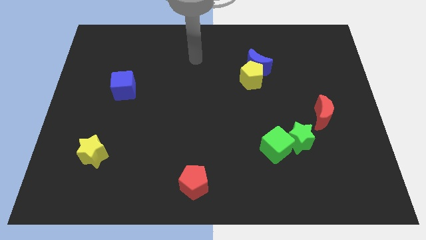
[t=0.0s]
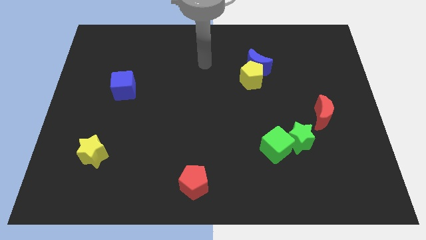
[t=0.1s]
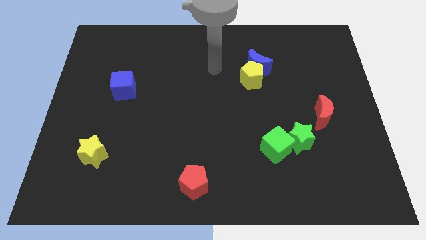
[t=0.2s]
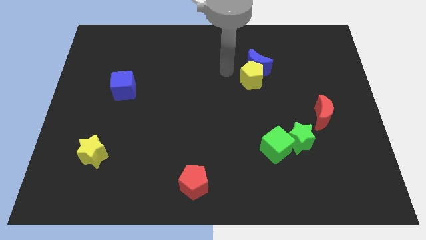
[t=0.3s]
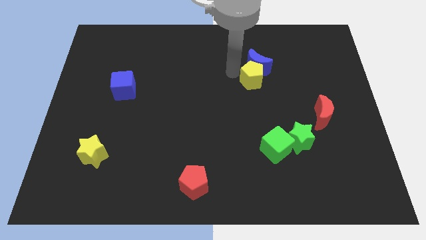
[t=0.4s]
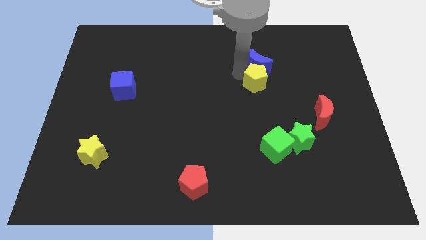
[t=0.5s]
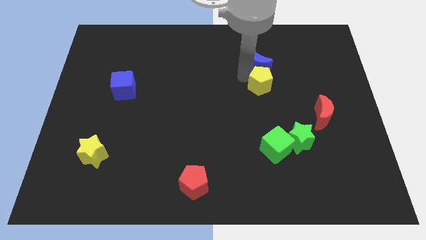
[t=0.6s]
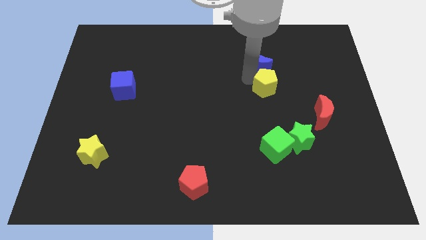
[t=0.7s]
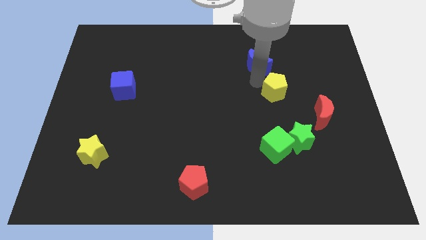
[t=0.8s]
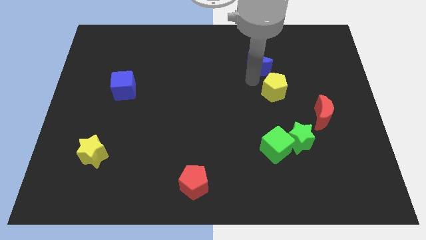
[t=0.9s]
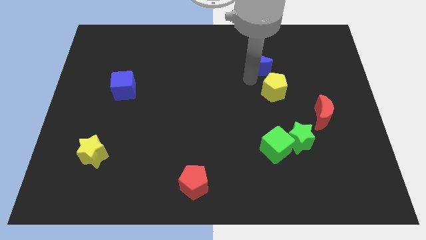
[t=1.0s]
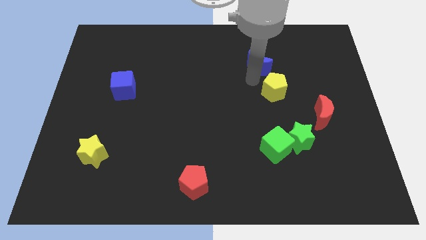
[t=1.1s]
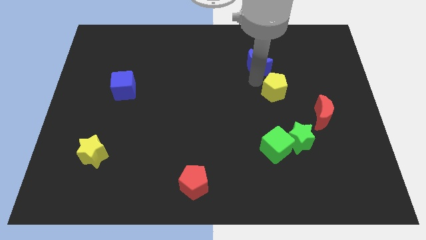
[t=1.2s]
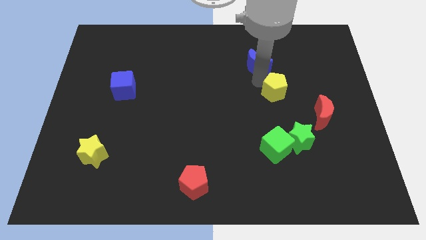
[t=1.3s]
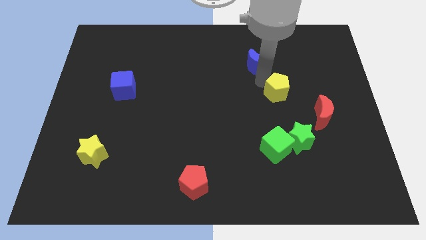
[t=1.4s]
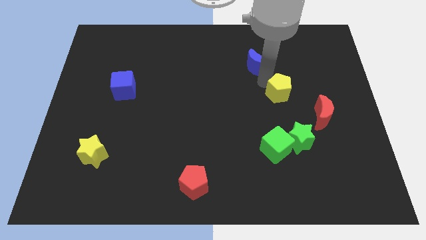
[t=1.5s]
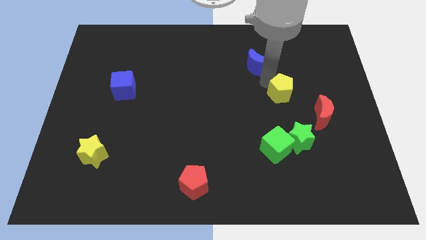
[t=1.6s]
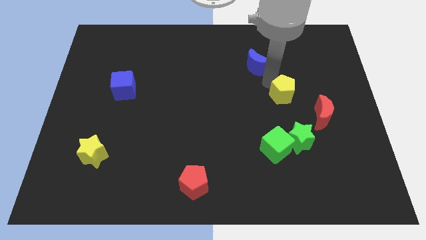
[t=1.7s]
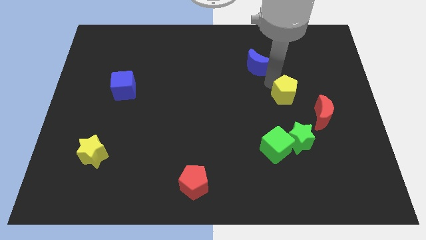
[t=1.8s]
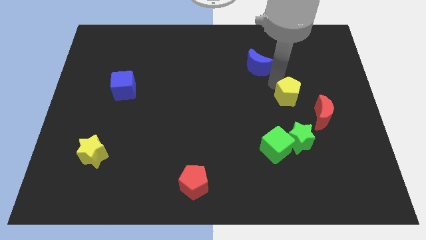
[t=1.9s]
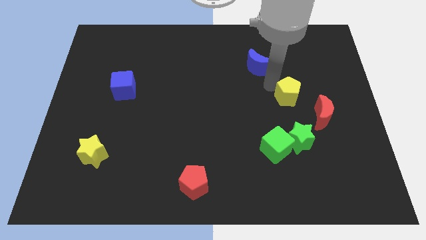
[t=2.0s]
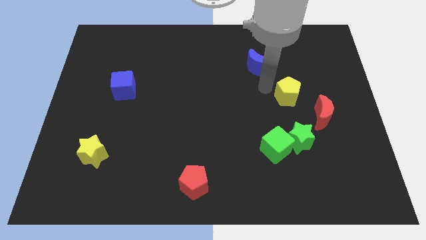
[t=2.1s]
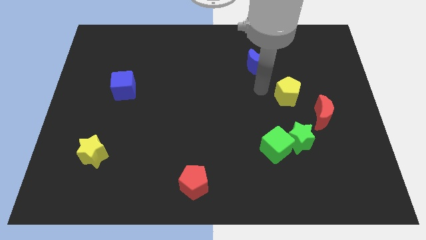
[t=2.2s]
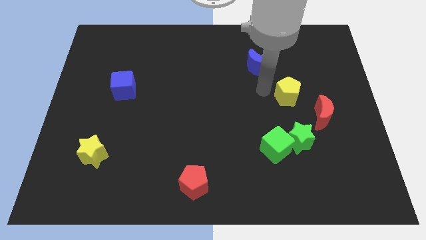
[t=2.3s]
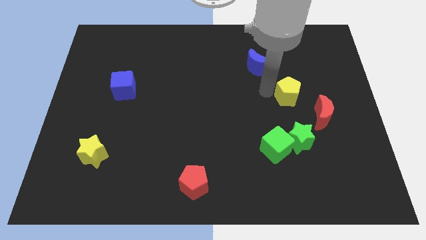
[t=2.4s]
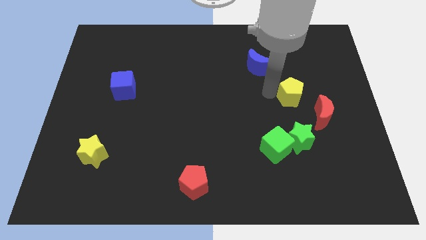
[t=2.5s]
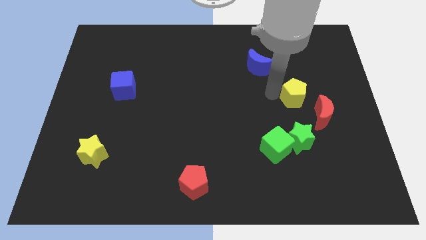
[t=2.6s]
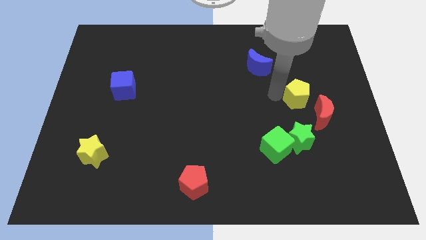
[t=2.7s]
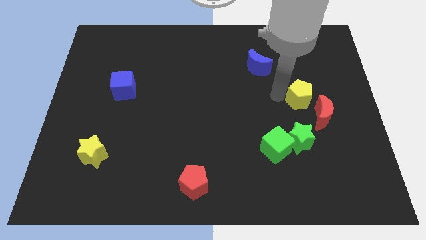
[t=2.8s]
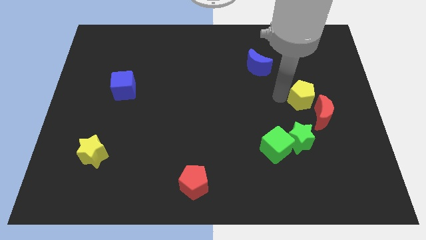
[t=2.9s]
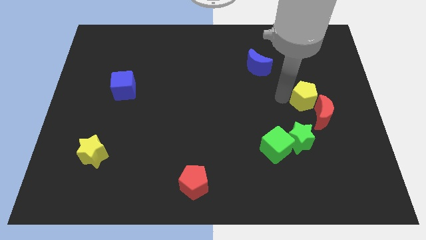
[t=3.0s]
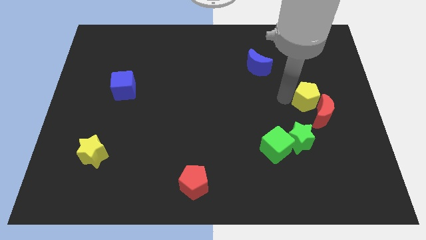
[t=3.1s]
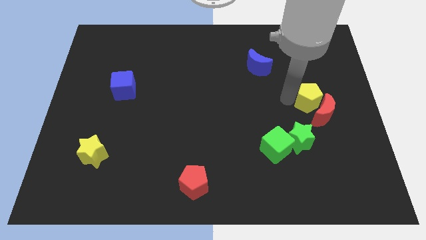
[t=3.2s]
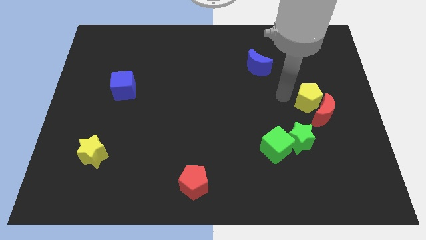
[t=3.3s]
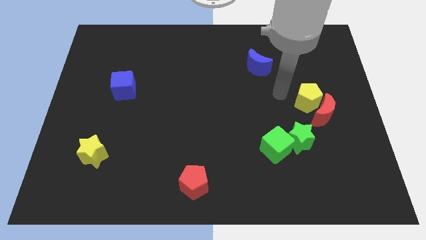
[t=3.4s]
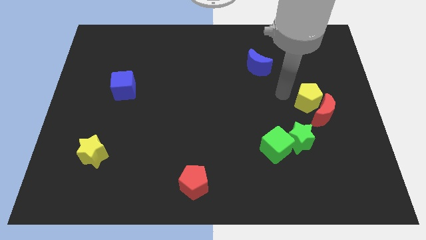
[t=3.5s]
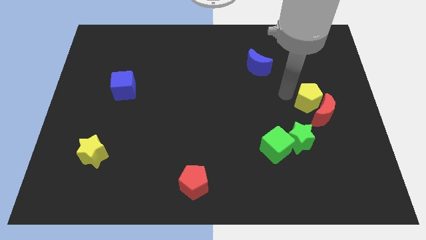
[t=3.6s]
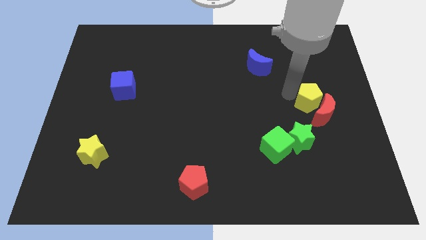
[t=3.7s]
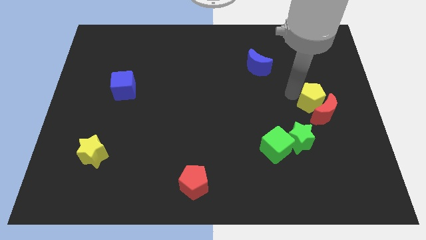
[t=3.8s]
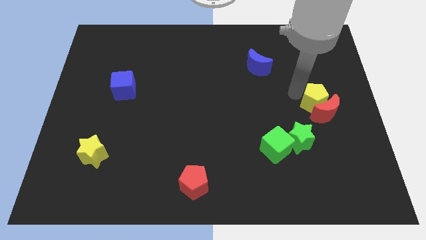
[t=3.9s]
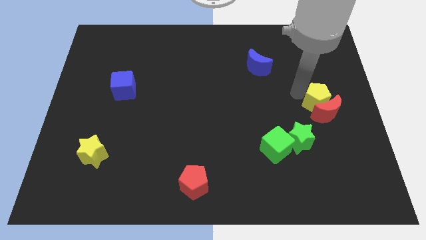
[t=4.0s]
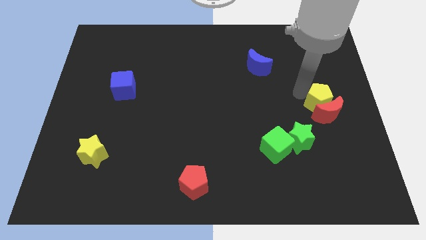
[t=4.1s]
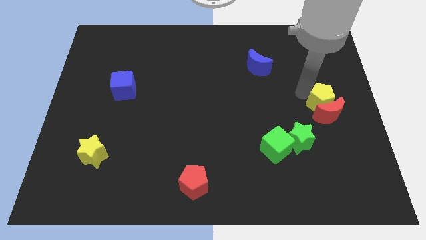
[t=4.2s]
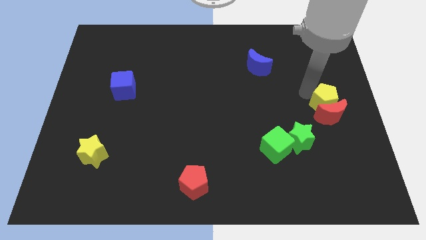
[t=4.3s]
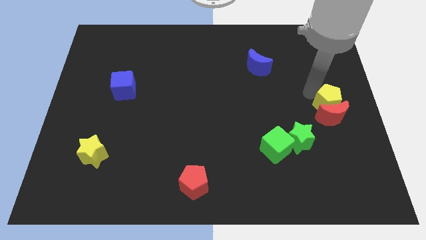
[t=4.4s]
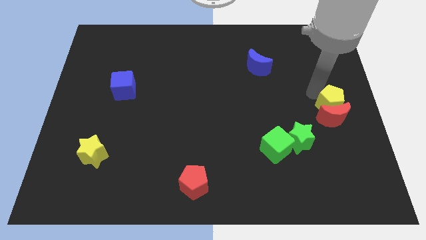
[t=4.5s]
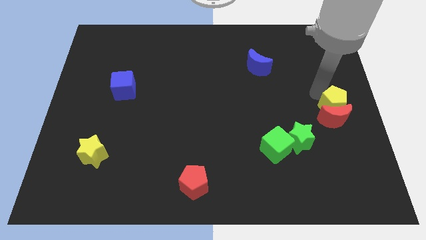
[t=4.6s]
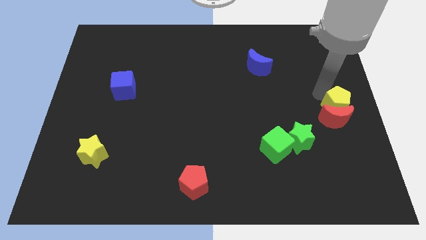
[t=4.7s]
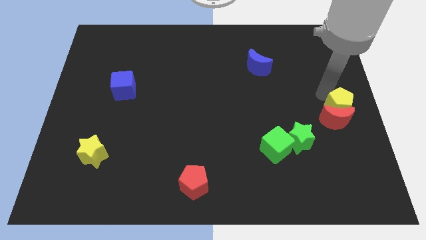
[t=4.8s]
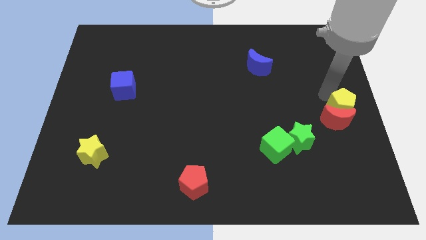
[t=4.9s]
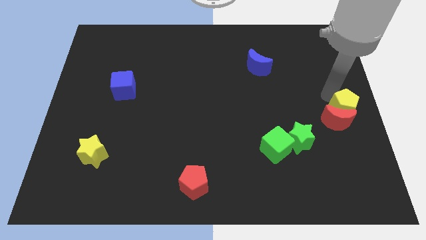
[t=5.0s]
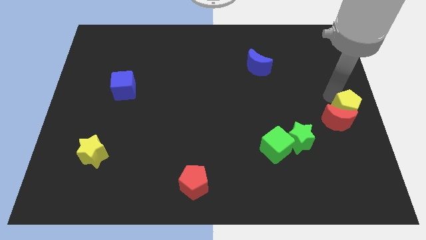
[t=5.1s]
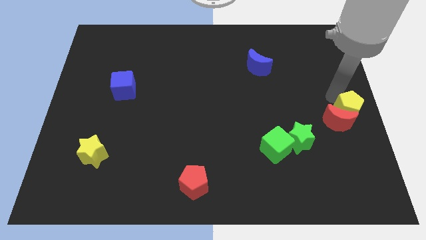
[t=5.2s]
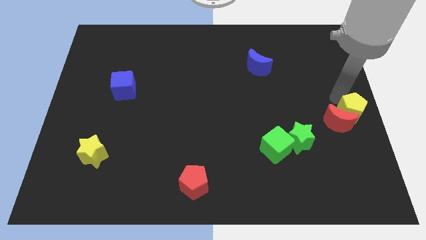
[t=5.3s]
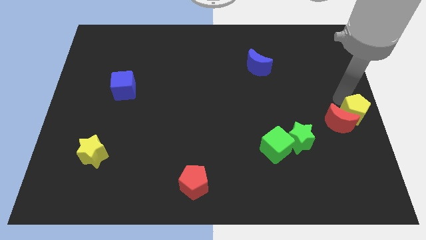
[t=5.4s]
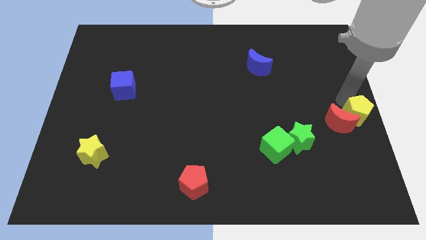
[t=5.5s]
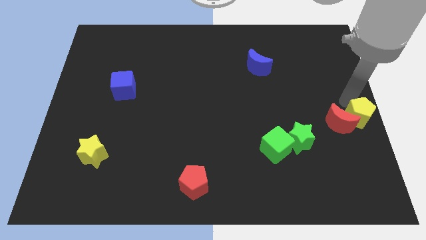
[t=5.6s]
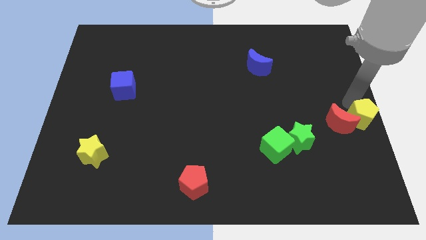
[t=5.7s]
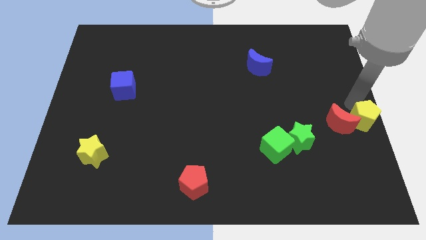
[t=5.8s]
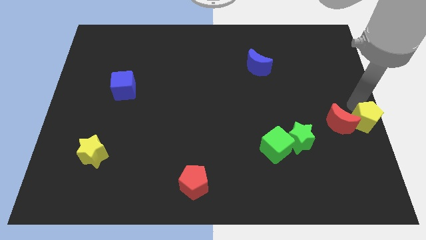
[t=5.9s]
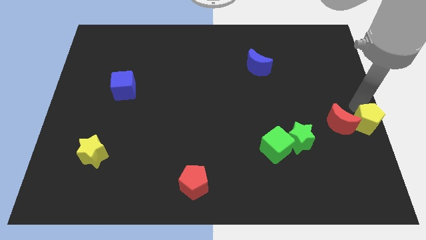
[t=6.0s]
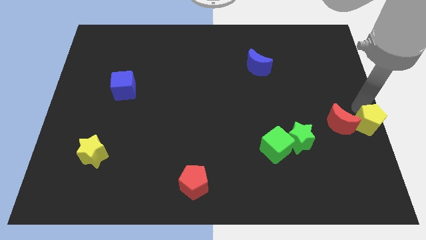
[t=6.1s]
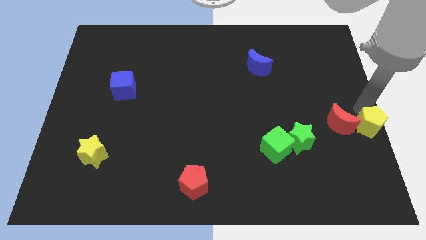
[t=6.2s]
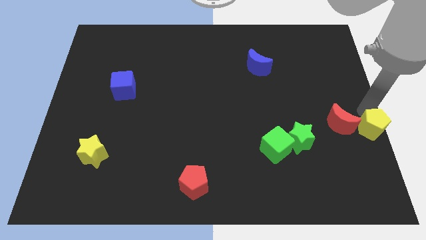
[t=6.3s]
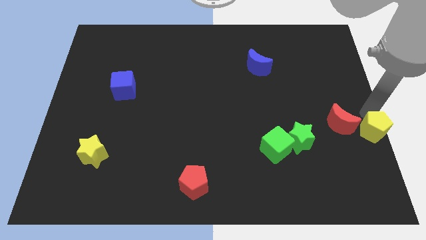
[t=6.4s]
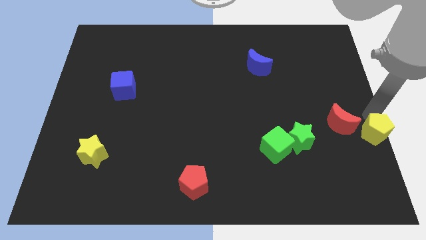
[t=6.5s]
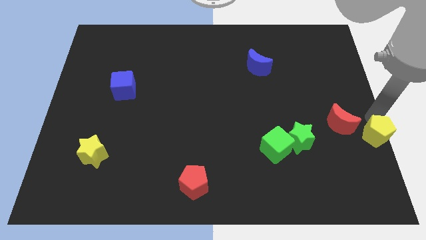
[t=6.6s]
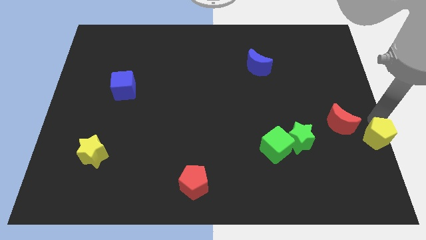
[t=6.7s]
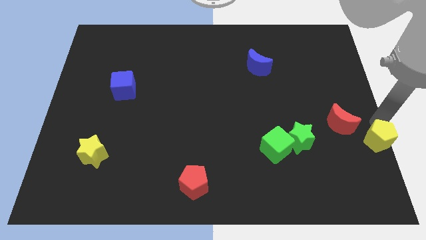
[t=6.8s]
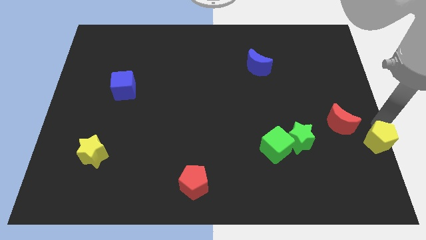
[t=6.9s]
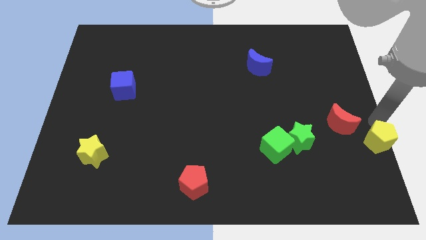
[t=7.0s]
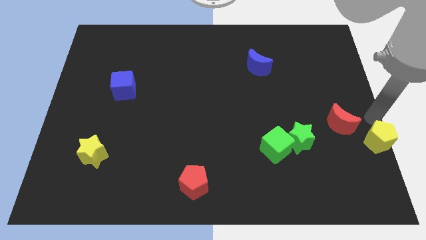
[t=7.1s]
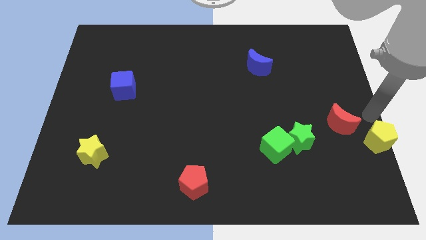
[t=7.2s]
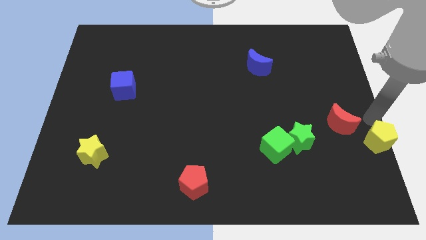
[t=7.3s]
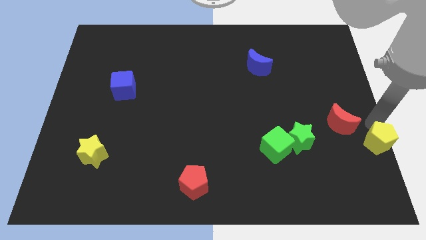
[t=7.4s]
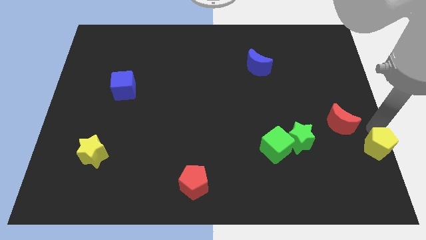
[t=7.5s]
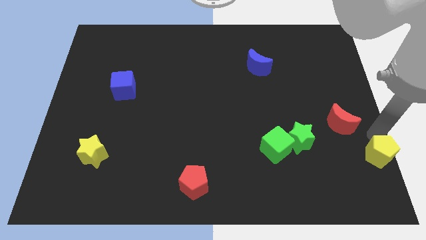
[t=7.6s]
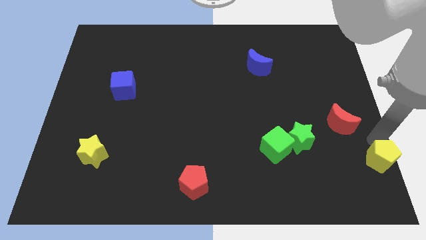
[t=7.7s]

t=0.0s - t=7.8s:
push the yellow pentagon to the lower right corner
